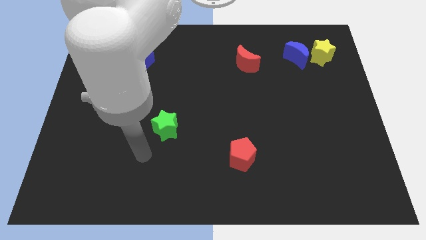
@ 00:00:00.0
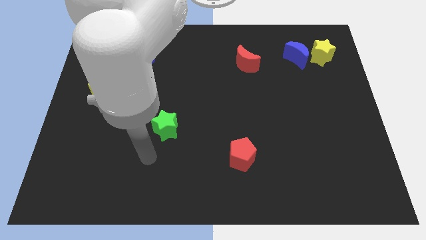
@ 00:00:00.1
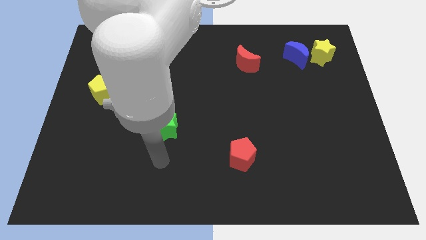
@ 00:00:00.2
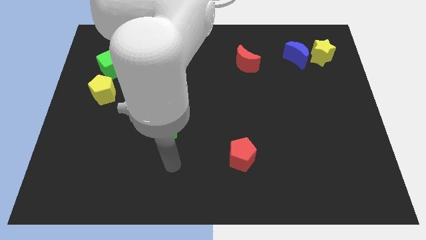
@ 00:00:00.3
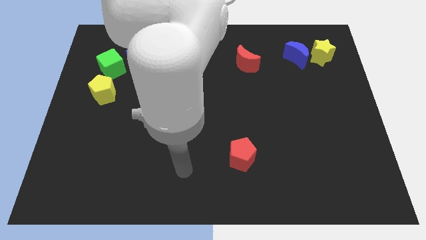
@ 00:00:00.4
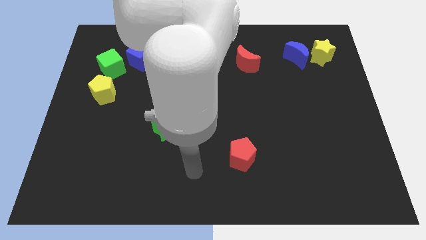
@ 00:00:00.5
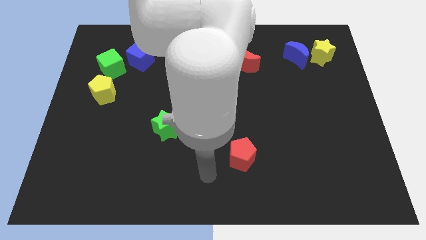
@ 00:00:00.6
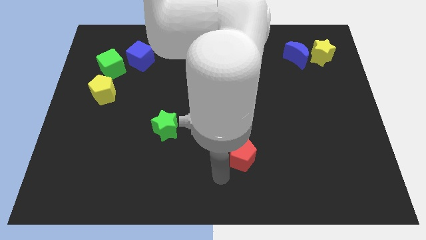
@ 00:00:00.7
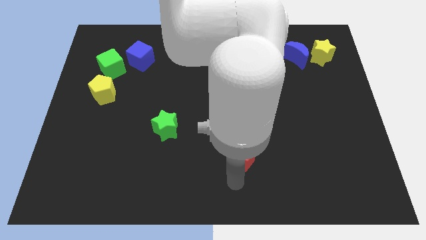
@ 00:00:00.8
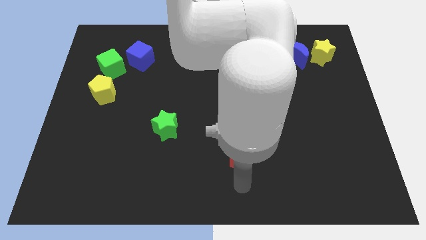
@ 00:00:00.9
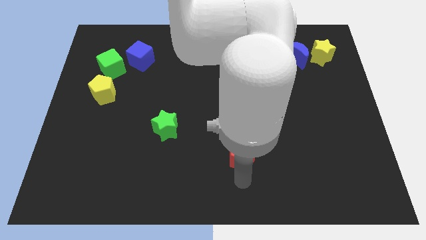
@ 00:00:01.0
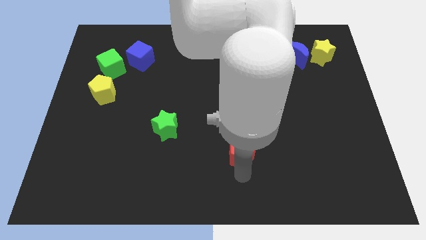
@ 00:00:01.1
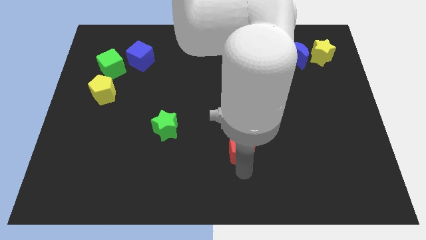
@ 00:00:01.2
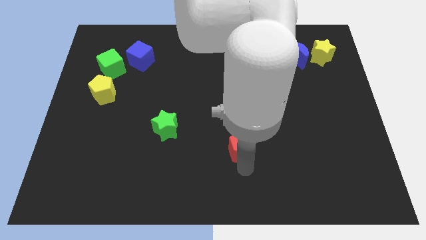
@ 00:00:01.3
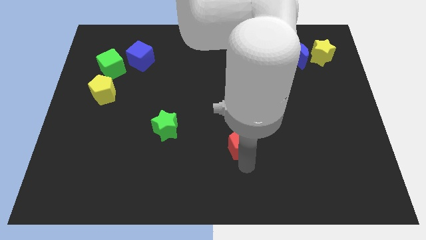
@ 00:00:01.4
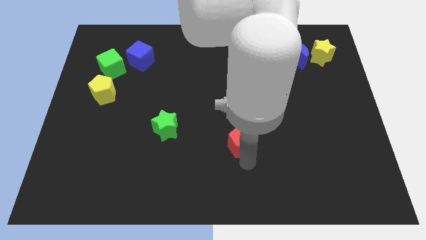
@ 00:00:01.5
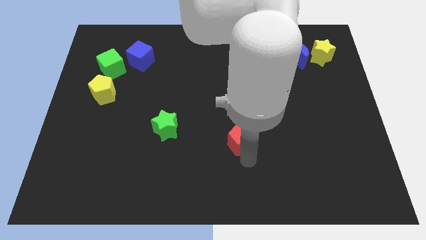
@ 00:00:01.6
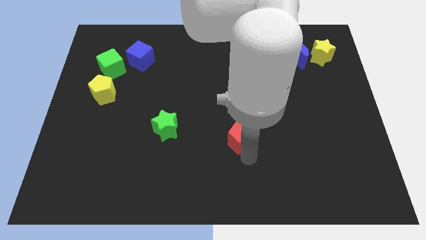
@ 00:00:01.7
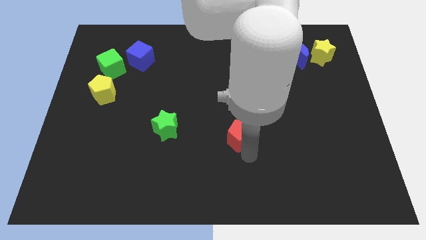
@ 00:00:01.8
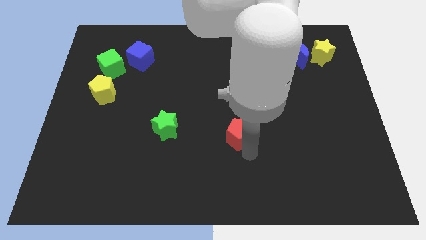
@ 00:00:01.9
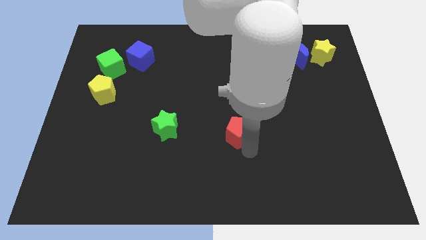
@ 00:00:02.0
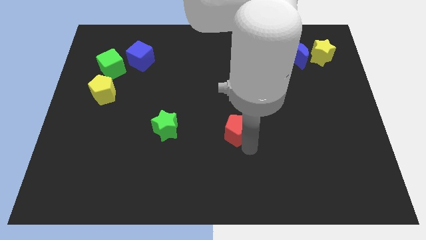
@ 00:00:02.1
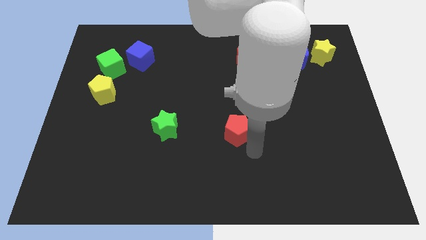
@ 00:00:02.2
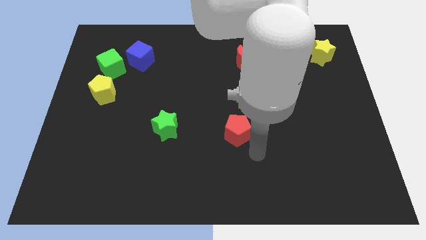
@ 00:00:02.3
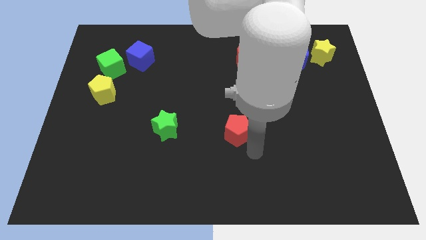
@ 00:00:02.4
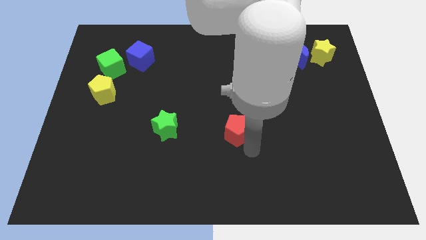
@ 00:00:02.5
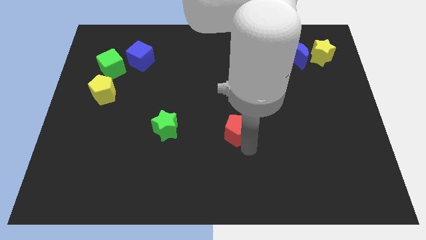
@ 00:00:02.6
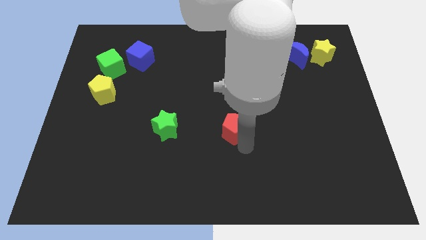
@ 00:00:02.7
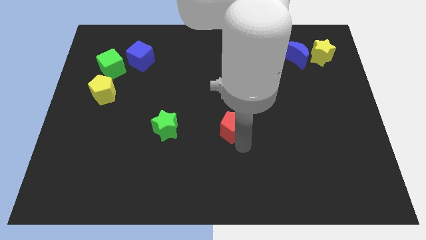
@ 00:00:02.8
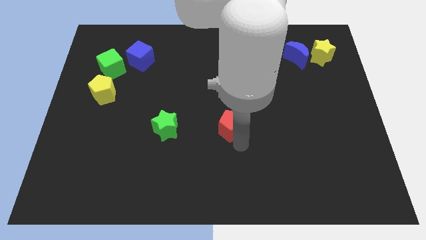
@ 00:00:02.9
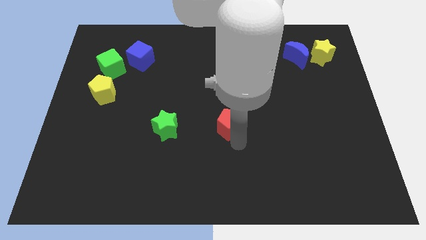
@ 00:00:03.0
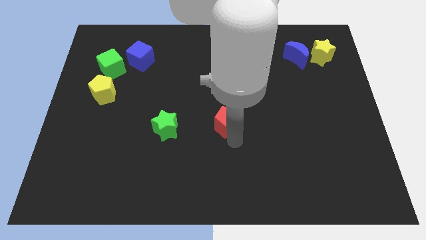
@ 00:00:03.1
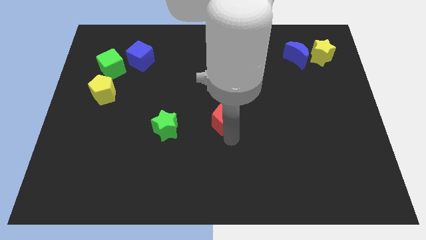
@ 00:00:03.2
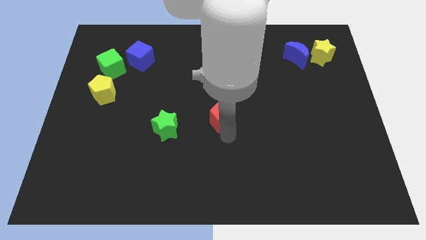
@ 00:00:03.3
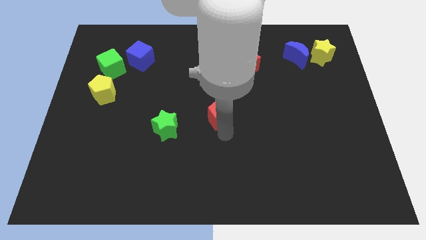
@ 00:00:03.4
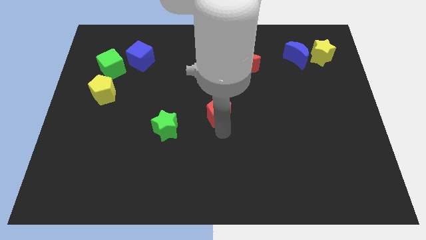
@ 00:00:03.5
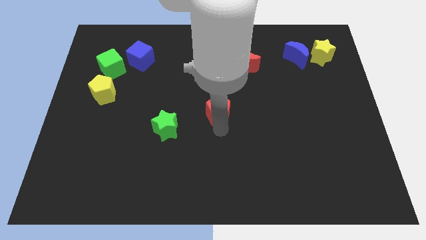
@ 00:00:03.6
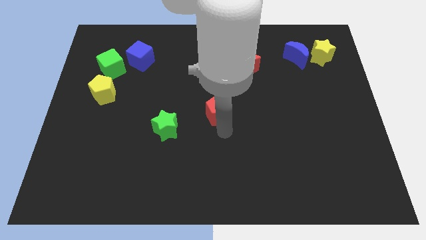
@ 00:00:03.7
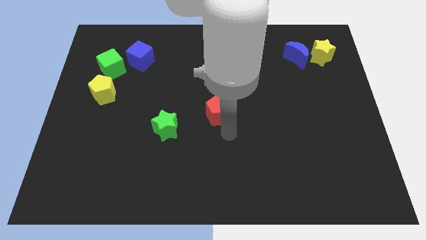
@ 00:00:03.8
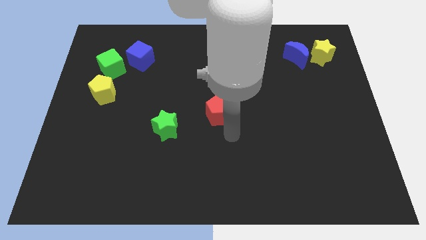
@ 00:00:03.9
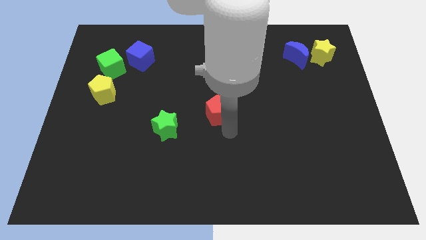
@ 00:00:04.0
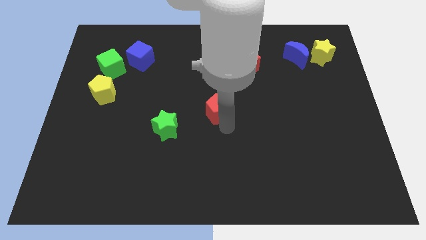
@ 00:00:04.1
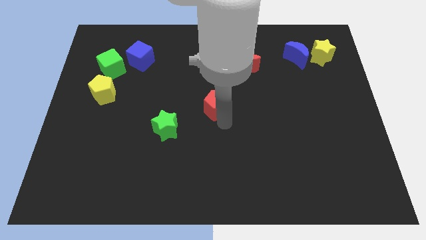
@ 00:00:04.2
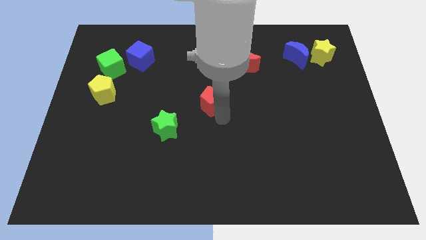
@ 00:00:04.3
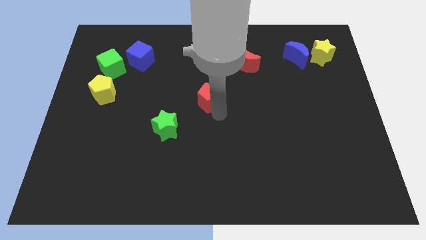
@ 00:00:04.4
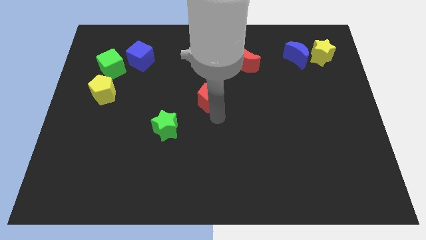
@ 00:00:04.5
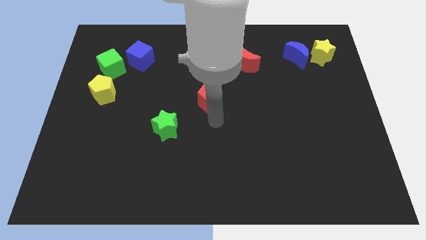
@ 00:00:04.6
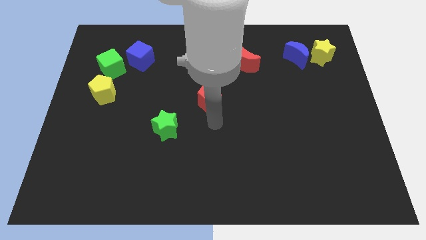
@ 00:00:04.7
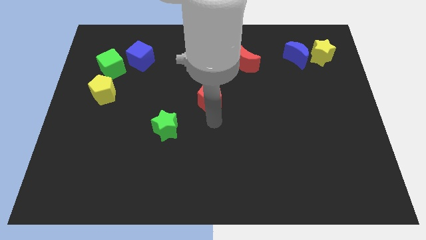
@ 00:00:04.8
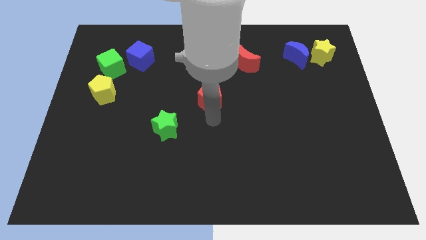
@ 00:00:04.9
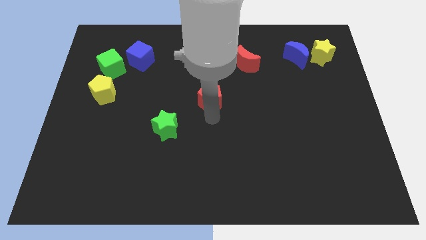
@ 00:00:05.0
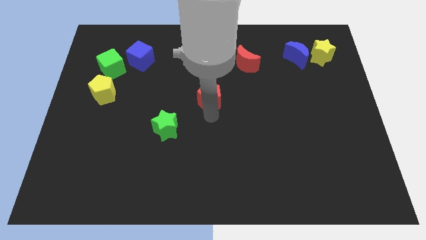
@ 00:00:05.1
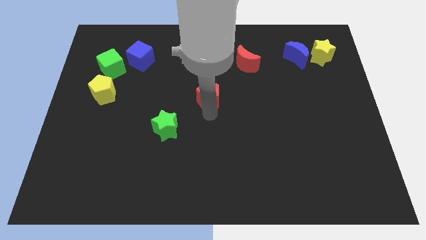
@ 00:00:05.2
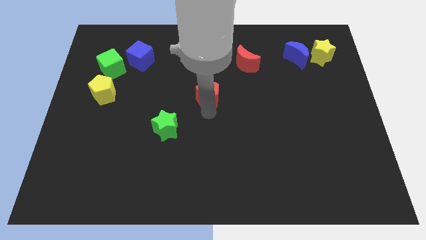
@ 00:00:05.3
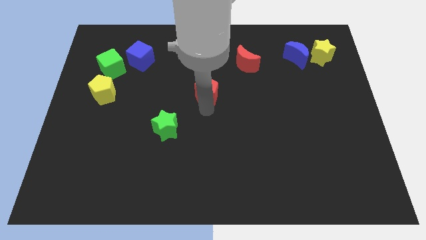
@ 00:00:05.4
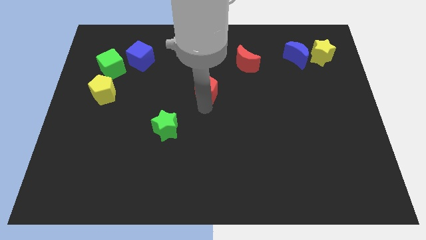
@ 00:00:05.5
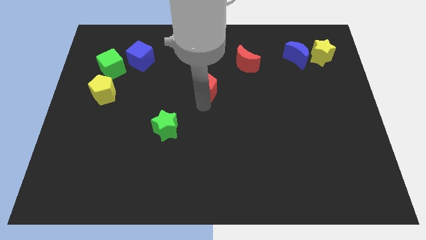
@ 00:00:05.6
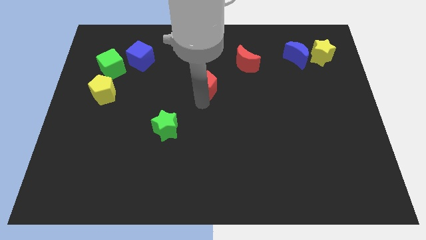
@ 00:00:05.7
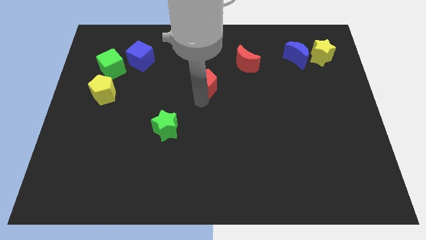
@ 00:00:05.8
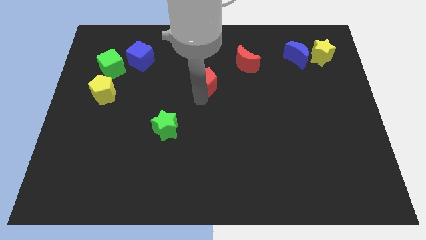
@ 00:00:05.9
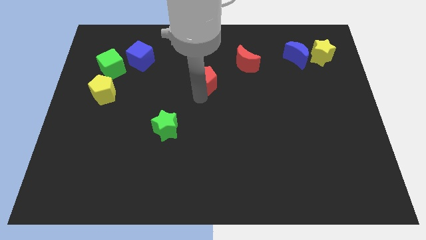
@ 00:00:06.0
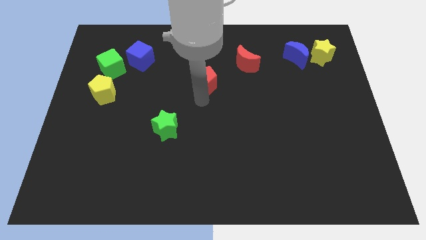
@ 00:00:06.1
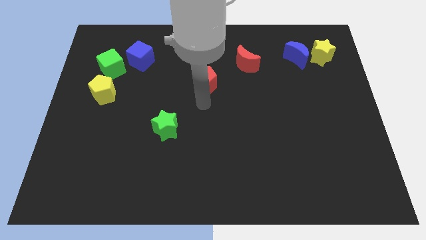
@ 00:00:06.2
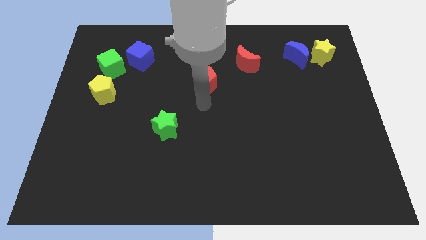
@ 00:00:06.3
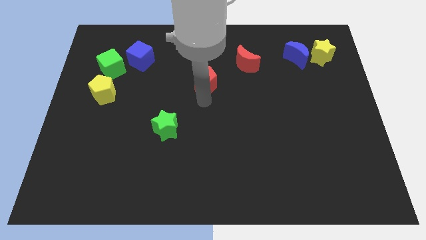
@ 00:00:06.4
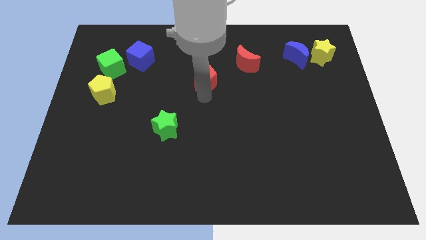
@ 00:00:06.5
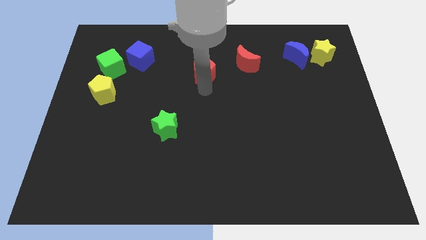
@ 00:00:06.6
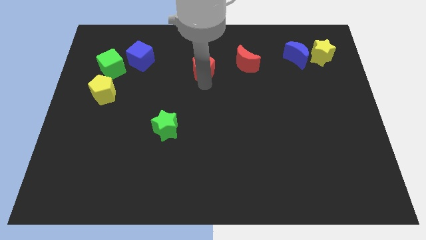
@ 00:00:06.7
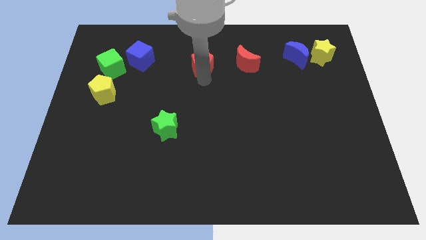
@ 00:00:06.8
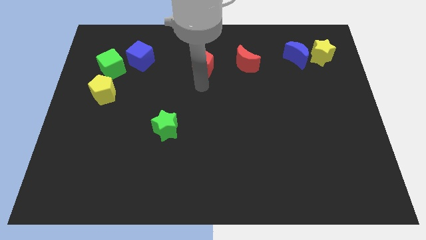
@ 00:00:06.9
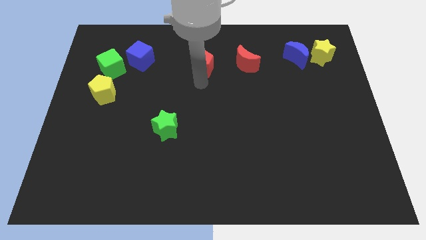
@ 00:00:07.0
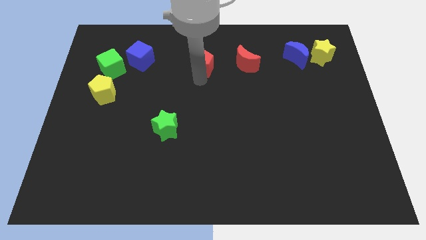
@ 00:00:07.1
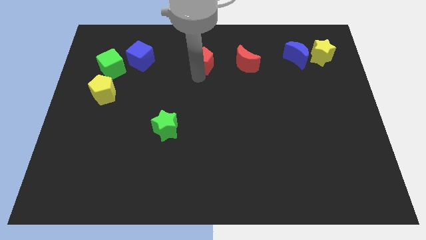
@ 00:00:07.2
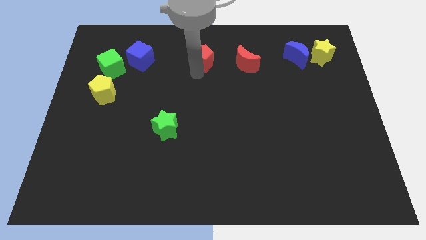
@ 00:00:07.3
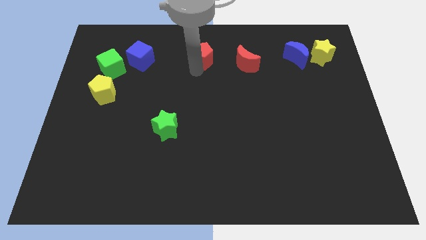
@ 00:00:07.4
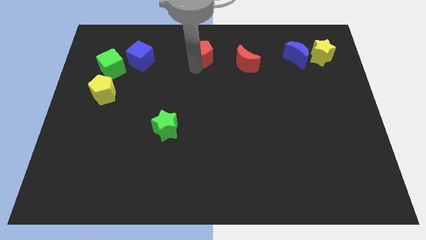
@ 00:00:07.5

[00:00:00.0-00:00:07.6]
slide the red pentagon to the towards your base
